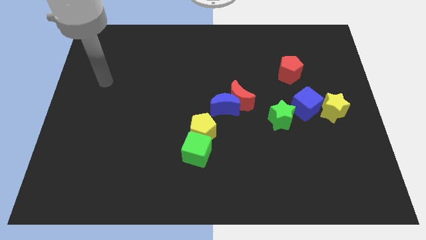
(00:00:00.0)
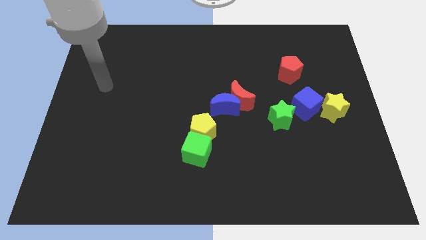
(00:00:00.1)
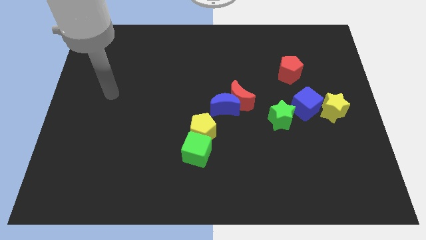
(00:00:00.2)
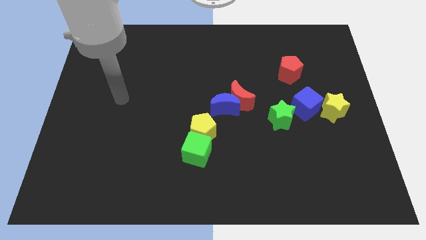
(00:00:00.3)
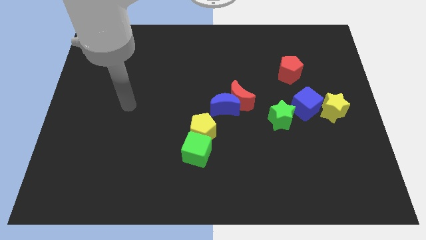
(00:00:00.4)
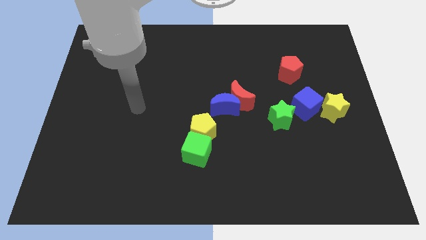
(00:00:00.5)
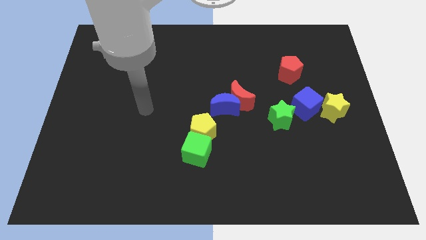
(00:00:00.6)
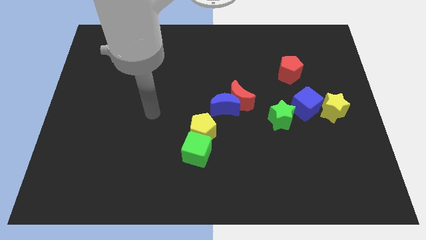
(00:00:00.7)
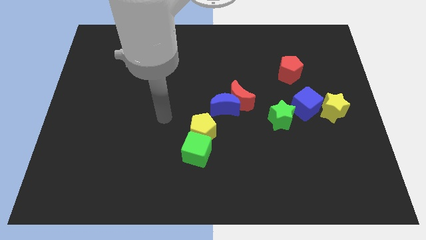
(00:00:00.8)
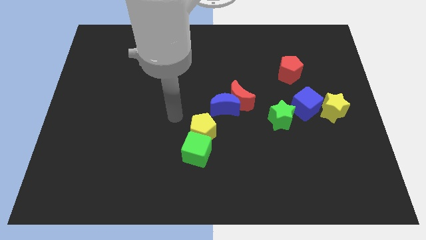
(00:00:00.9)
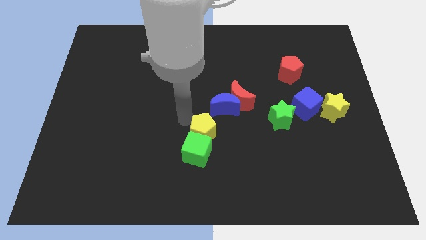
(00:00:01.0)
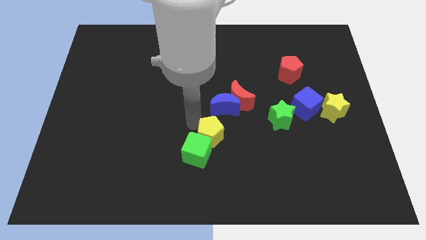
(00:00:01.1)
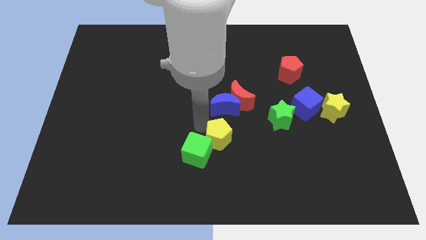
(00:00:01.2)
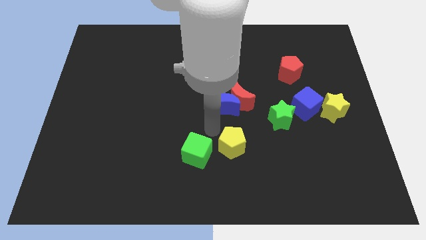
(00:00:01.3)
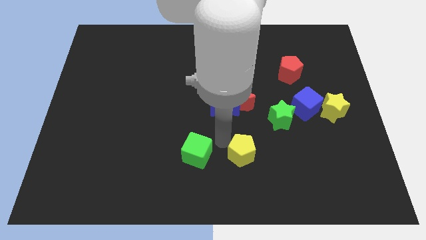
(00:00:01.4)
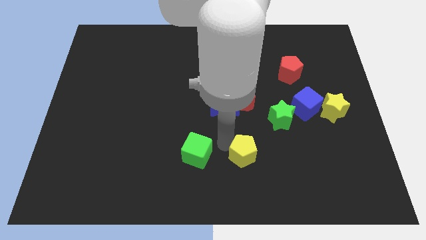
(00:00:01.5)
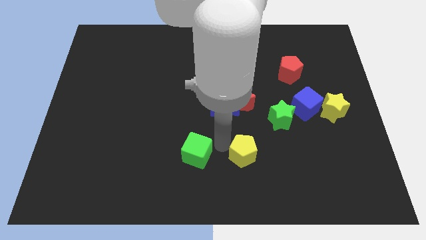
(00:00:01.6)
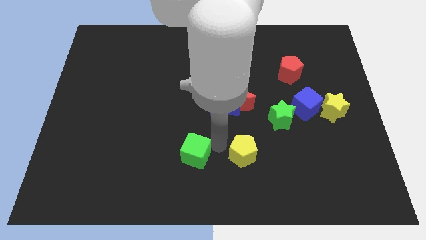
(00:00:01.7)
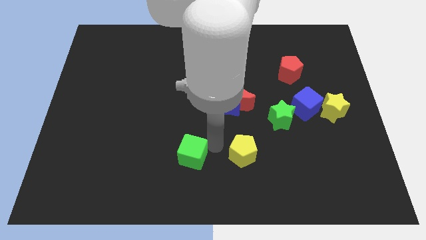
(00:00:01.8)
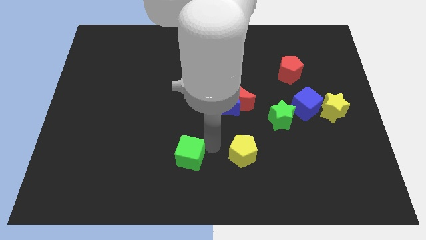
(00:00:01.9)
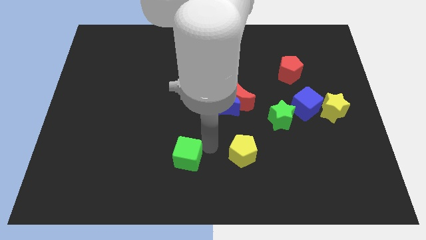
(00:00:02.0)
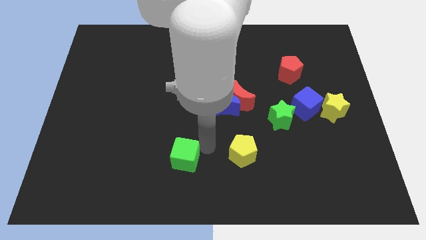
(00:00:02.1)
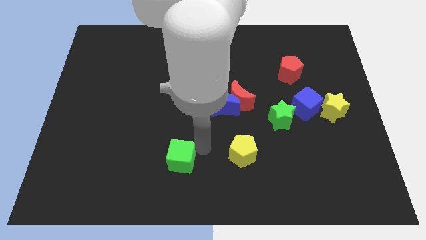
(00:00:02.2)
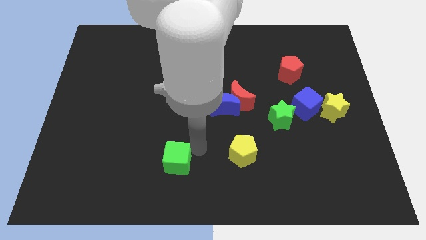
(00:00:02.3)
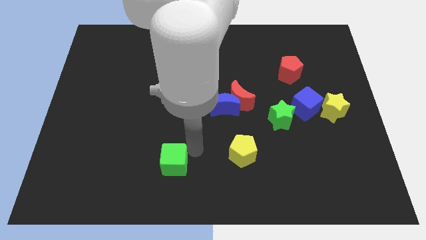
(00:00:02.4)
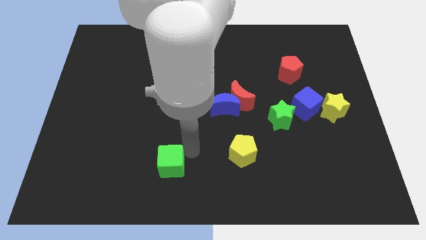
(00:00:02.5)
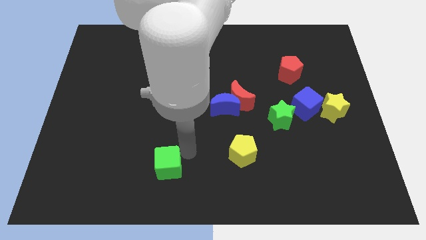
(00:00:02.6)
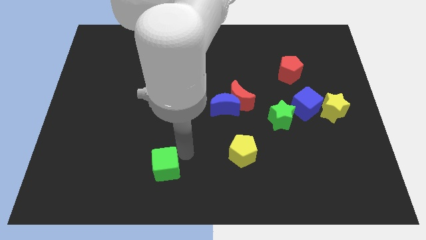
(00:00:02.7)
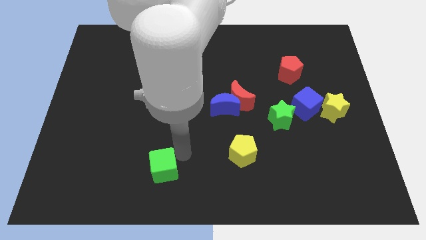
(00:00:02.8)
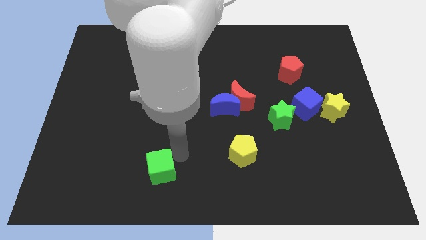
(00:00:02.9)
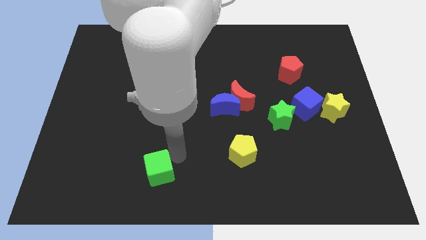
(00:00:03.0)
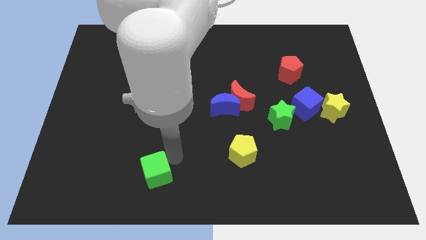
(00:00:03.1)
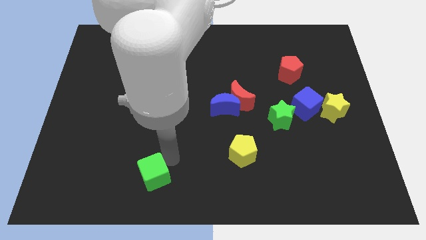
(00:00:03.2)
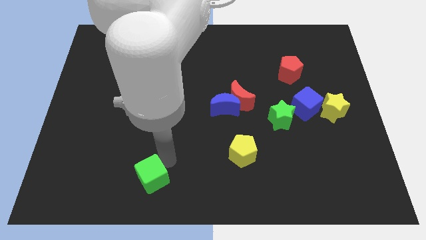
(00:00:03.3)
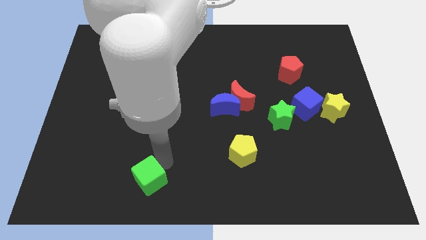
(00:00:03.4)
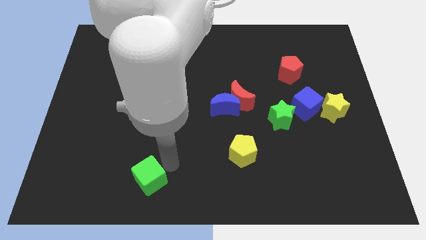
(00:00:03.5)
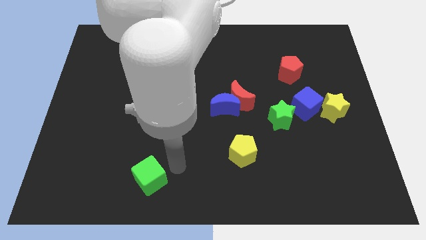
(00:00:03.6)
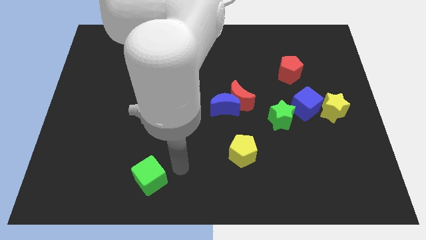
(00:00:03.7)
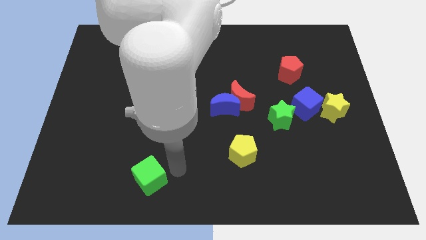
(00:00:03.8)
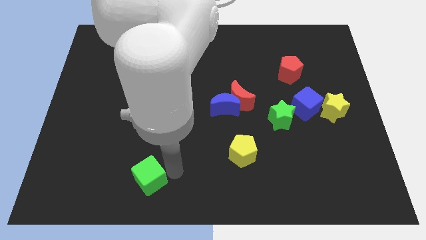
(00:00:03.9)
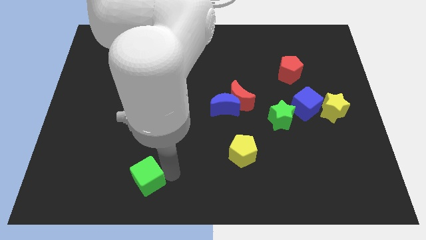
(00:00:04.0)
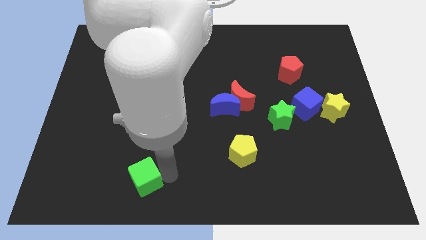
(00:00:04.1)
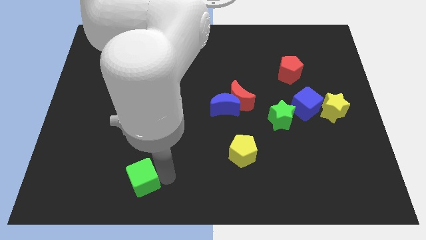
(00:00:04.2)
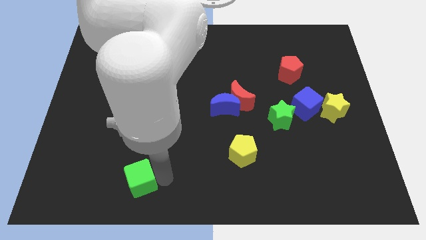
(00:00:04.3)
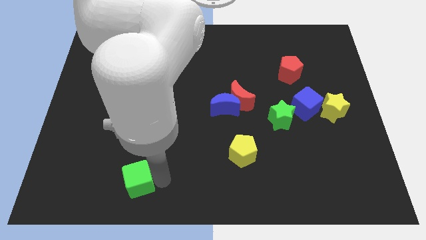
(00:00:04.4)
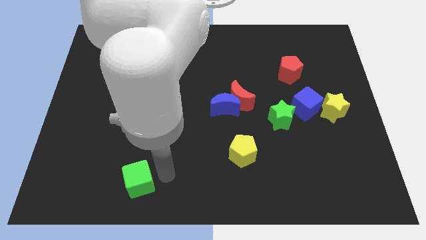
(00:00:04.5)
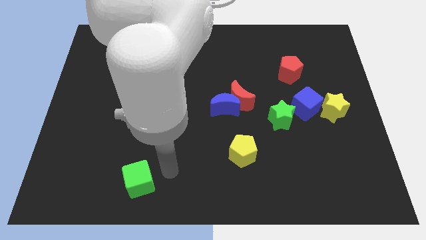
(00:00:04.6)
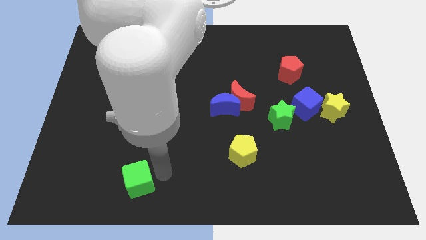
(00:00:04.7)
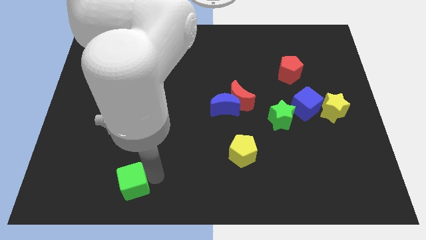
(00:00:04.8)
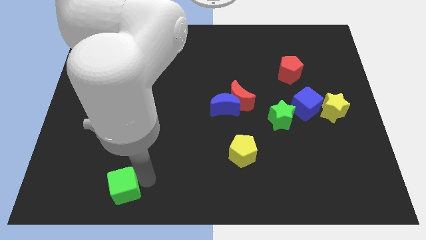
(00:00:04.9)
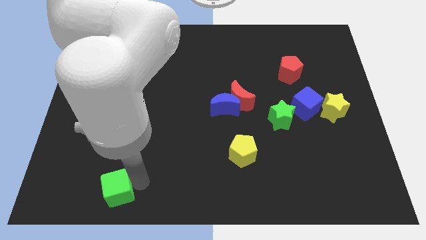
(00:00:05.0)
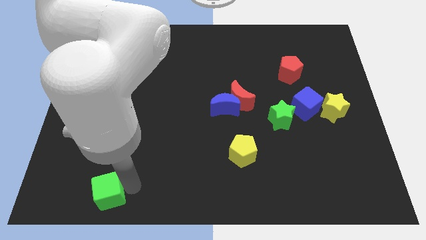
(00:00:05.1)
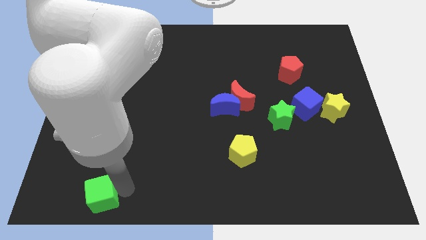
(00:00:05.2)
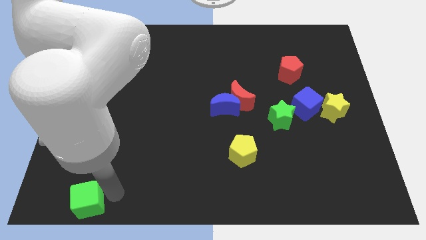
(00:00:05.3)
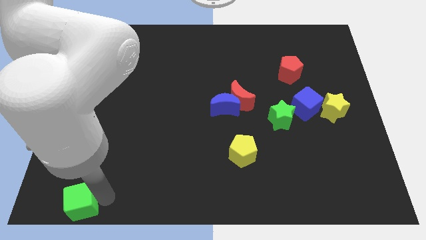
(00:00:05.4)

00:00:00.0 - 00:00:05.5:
put the green cube to the bottom left

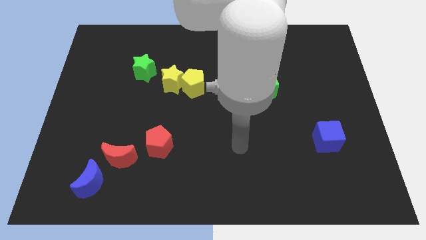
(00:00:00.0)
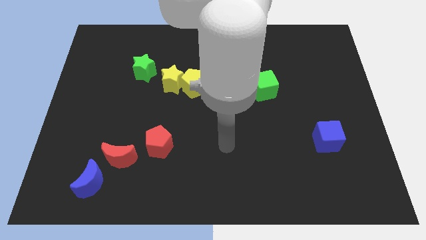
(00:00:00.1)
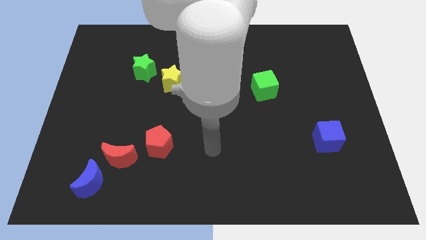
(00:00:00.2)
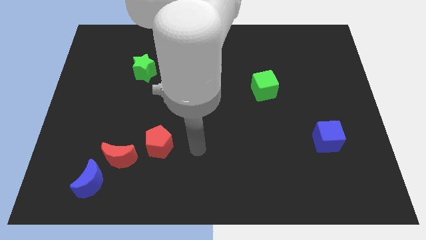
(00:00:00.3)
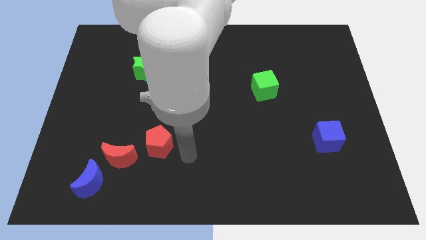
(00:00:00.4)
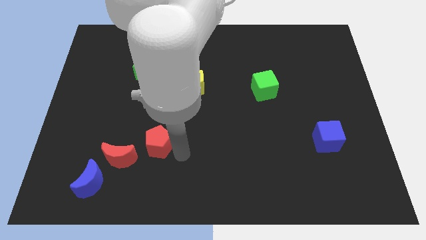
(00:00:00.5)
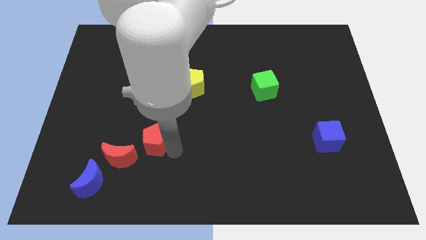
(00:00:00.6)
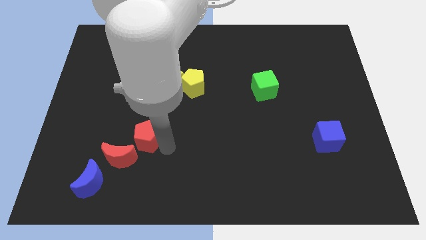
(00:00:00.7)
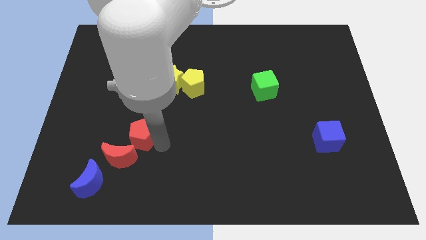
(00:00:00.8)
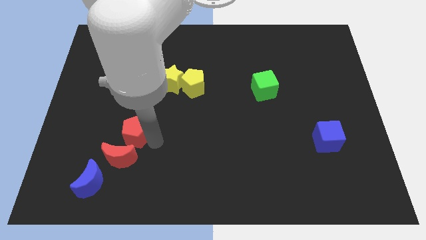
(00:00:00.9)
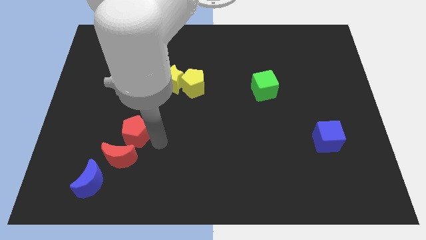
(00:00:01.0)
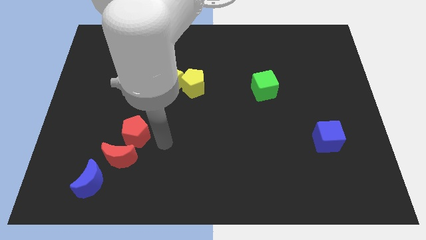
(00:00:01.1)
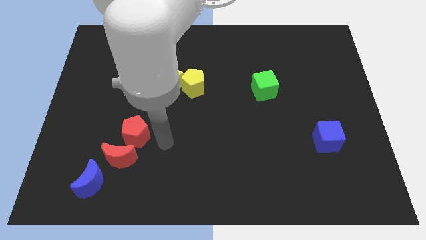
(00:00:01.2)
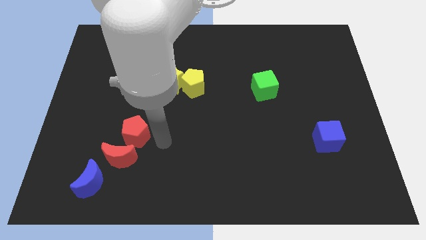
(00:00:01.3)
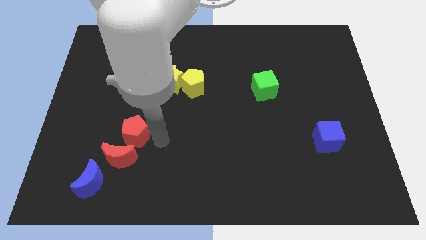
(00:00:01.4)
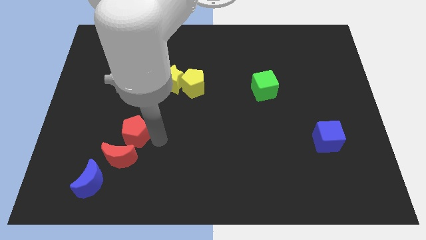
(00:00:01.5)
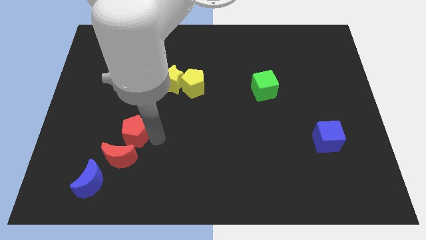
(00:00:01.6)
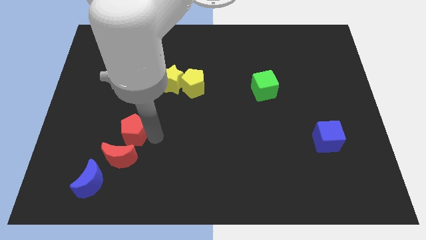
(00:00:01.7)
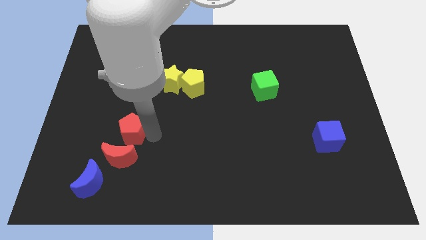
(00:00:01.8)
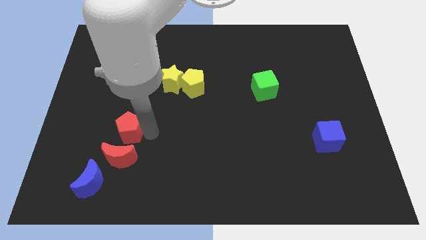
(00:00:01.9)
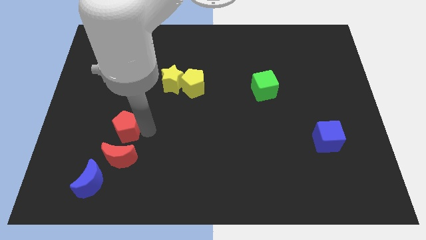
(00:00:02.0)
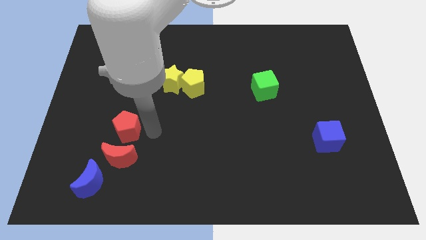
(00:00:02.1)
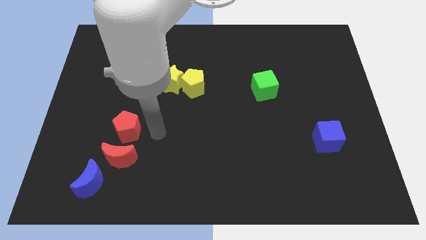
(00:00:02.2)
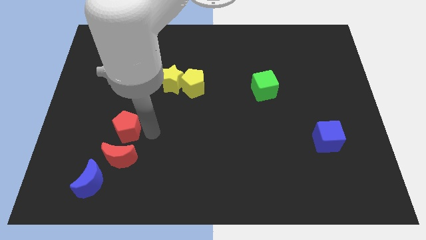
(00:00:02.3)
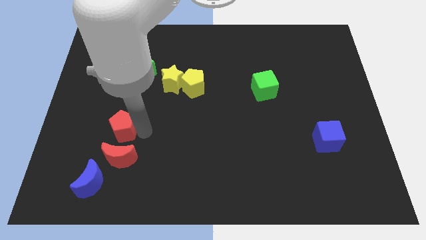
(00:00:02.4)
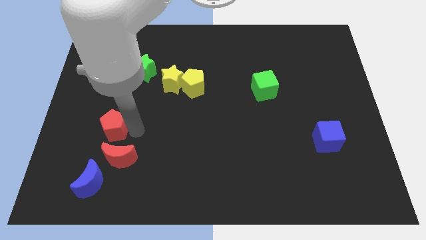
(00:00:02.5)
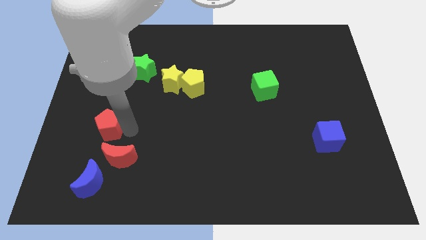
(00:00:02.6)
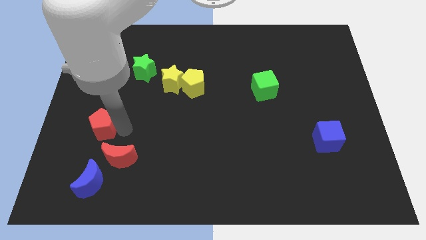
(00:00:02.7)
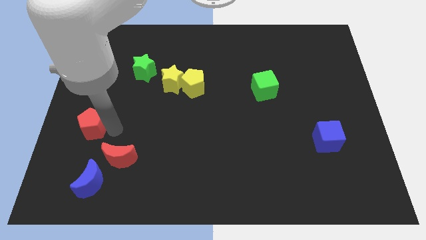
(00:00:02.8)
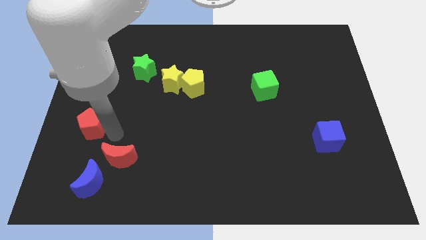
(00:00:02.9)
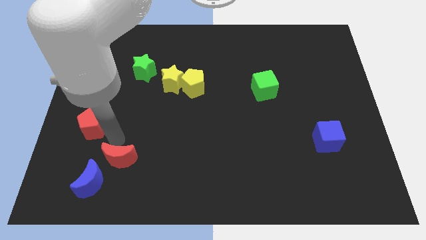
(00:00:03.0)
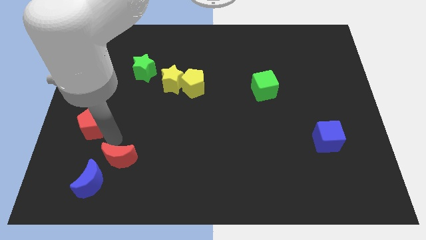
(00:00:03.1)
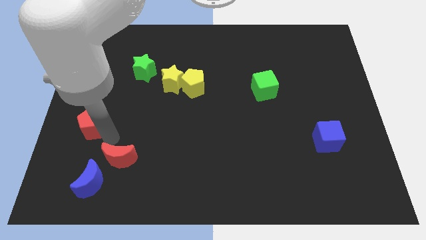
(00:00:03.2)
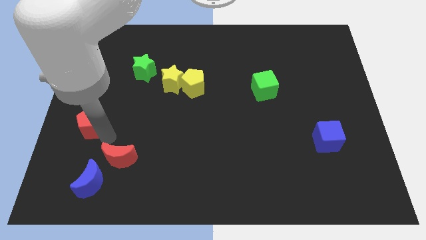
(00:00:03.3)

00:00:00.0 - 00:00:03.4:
push the red pentagon to the left side of the board
